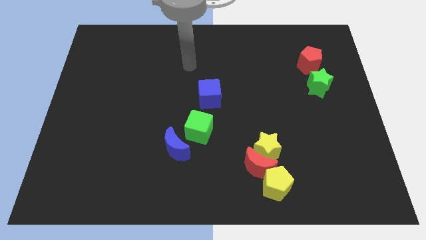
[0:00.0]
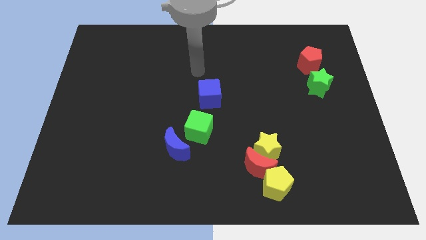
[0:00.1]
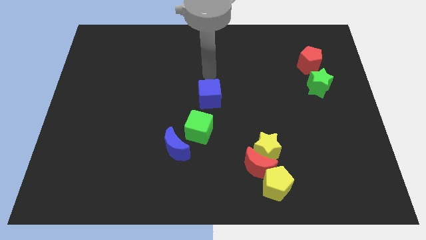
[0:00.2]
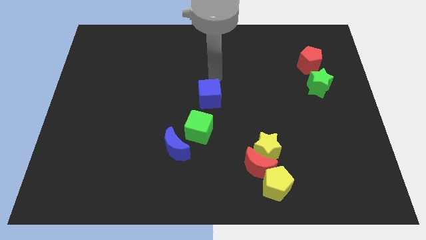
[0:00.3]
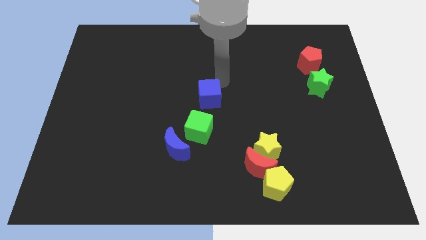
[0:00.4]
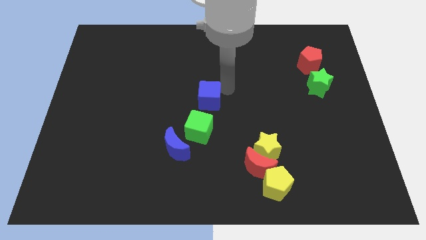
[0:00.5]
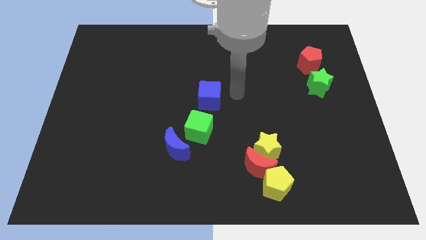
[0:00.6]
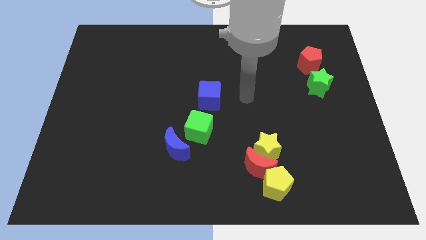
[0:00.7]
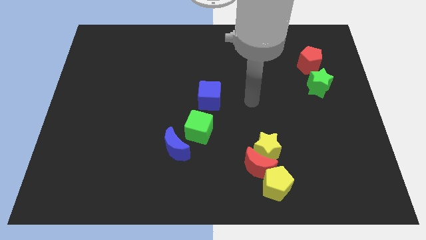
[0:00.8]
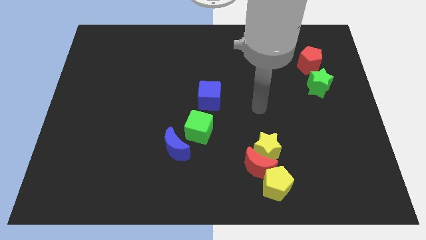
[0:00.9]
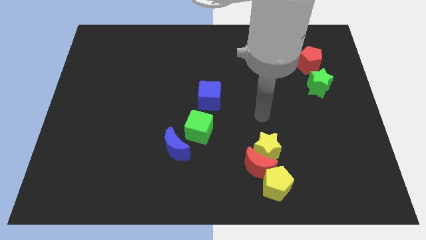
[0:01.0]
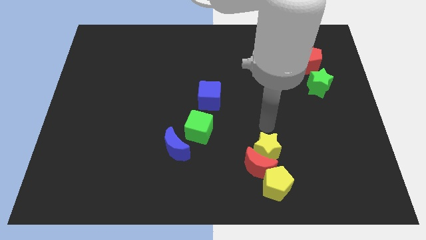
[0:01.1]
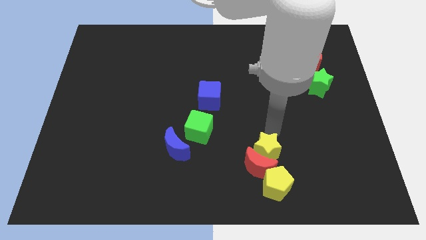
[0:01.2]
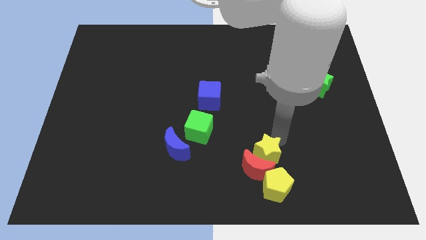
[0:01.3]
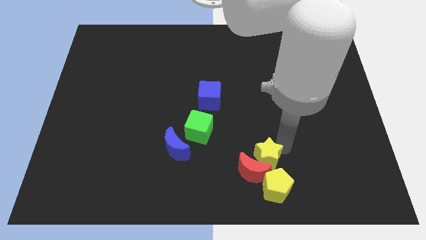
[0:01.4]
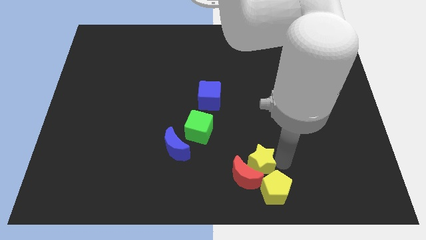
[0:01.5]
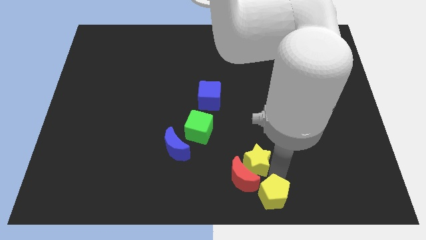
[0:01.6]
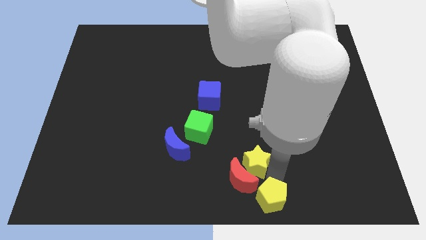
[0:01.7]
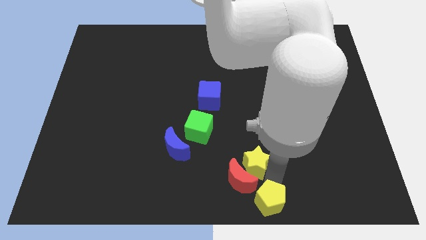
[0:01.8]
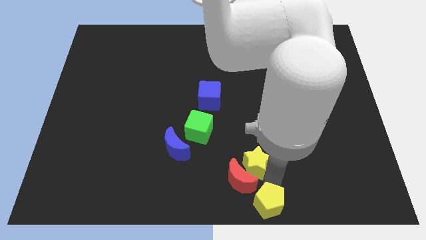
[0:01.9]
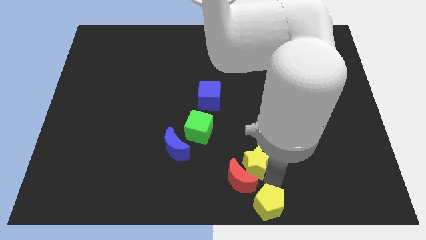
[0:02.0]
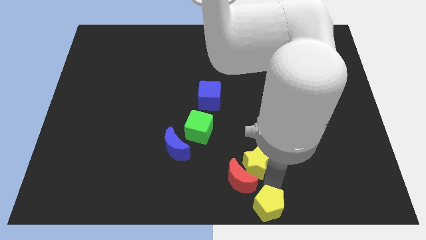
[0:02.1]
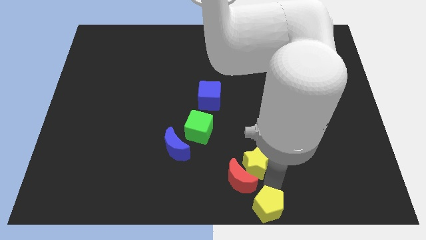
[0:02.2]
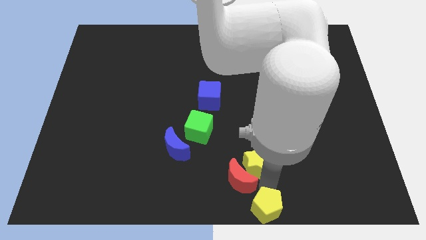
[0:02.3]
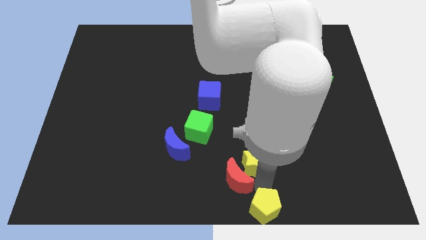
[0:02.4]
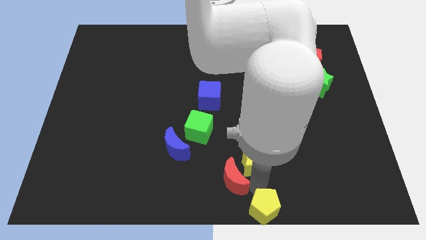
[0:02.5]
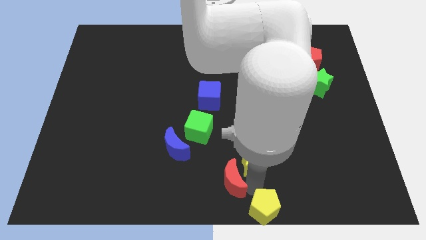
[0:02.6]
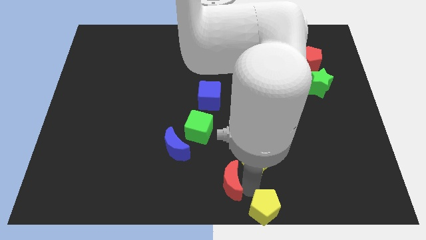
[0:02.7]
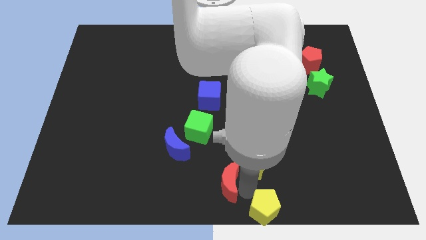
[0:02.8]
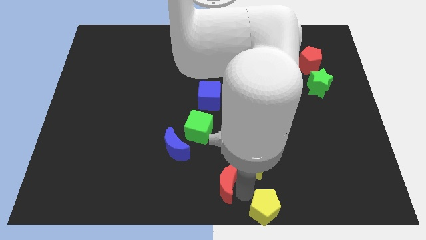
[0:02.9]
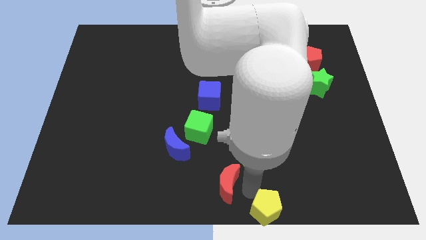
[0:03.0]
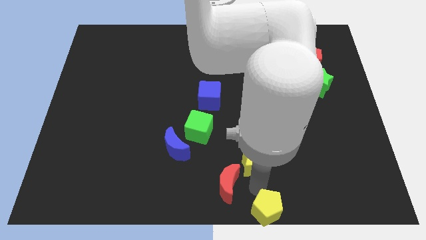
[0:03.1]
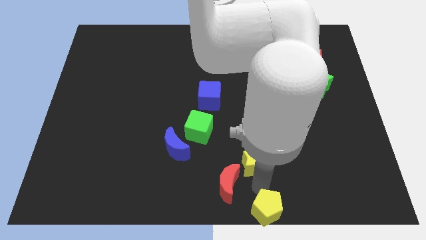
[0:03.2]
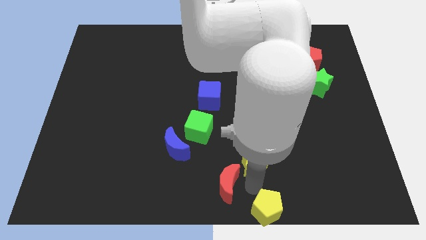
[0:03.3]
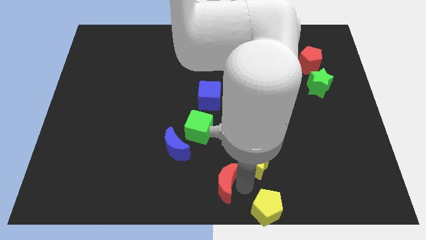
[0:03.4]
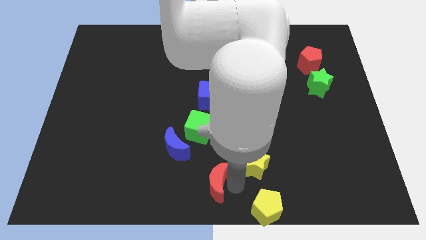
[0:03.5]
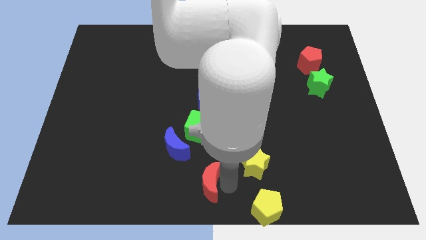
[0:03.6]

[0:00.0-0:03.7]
pull the red moon apart from the yellow star and yellow pentagon

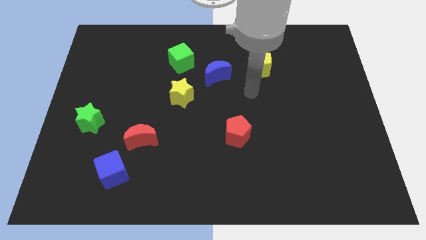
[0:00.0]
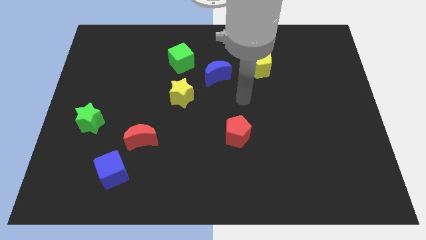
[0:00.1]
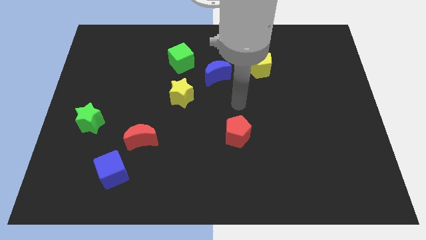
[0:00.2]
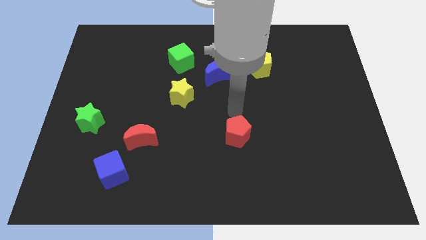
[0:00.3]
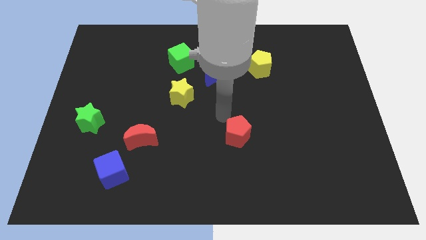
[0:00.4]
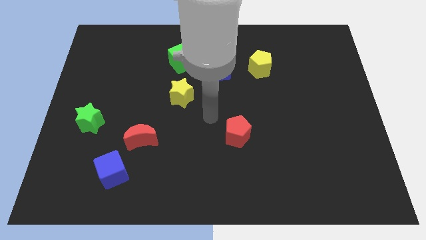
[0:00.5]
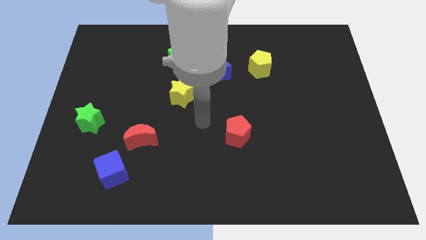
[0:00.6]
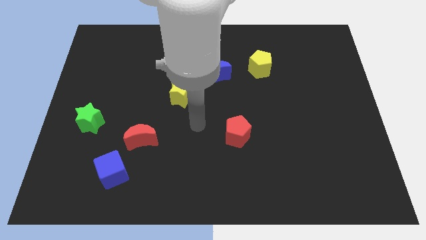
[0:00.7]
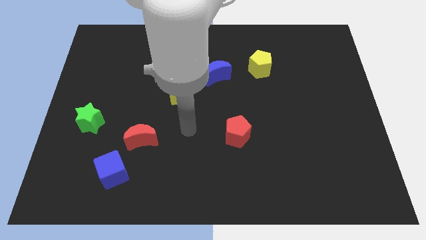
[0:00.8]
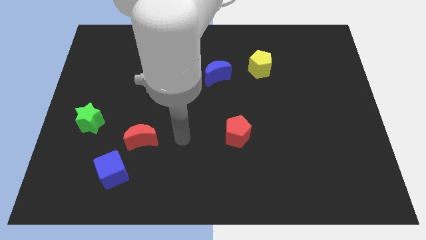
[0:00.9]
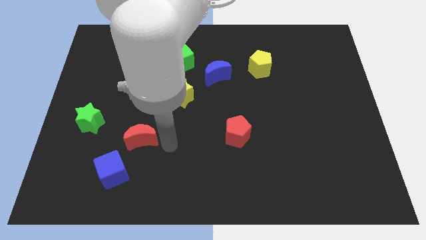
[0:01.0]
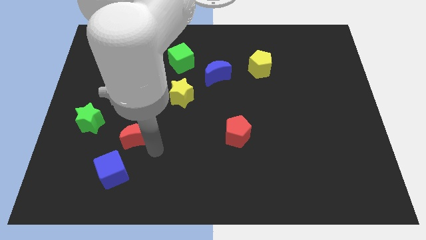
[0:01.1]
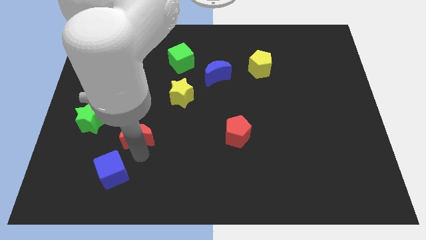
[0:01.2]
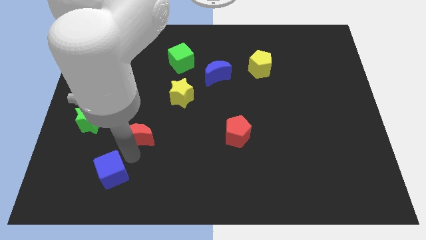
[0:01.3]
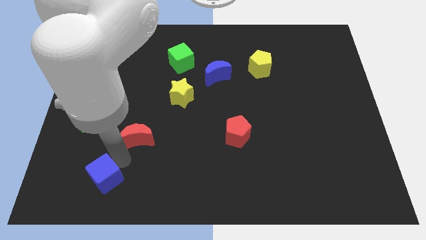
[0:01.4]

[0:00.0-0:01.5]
pull the red moon apart from the blue cube

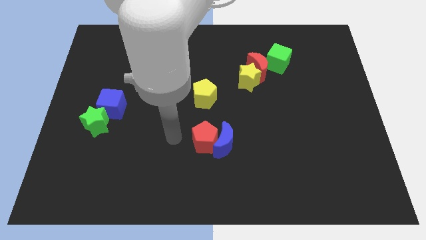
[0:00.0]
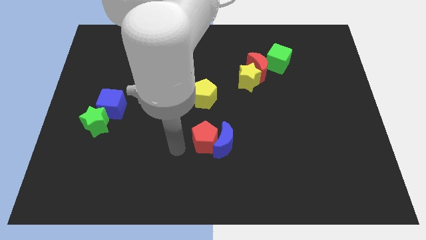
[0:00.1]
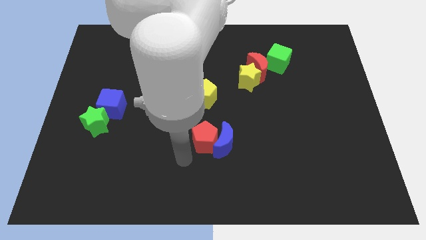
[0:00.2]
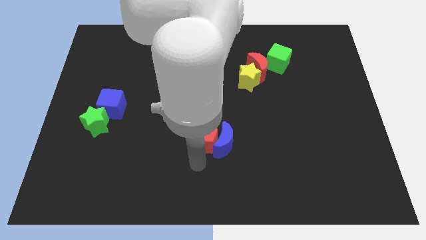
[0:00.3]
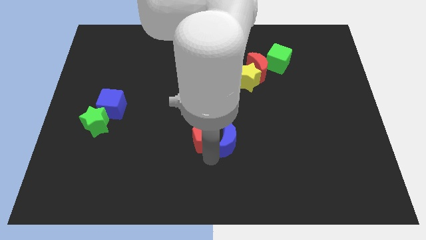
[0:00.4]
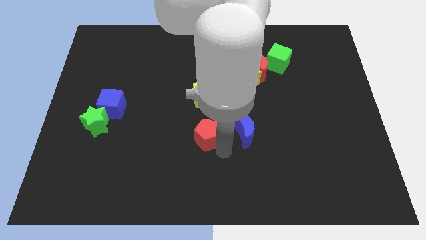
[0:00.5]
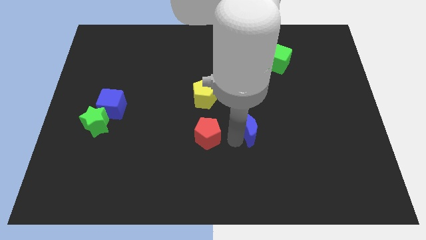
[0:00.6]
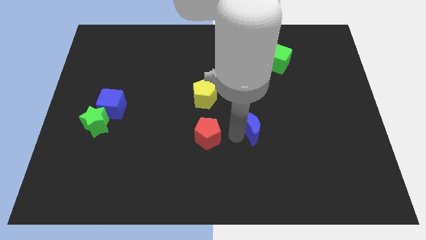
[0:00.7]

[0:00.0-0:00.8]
pull the red pentagon apart from the blue moon

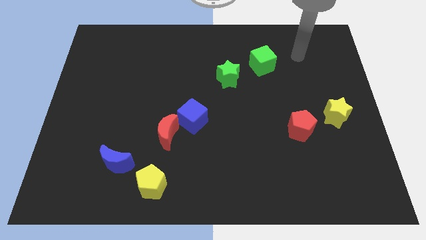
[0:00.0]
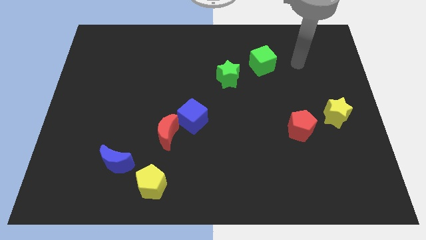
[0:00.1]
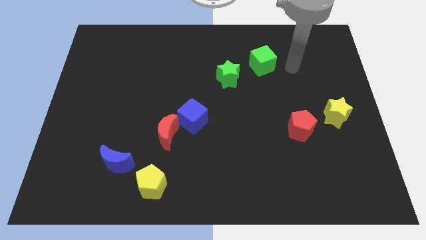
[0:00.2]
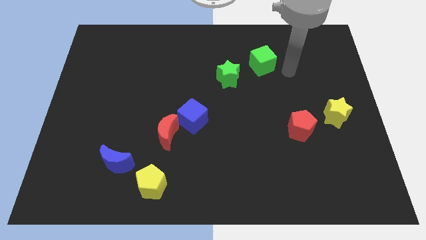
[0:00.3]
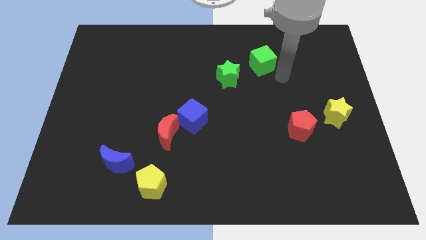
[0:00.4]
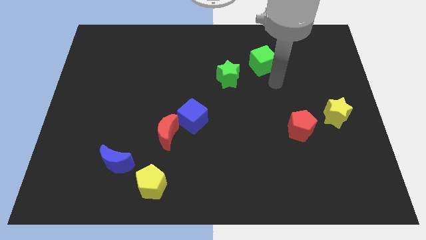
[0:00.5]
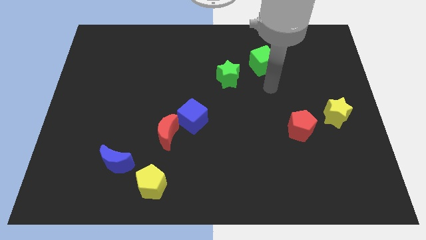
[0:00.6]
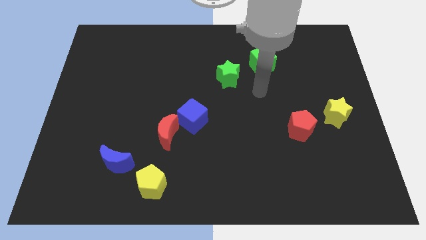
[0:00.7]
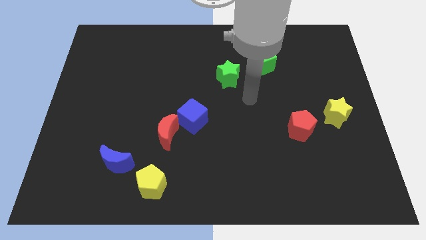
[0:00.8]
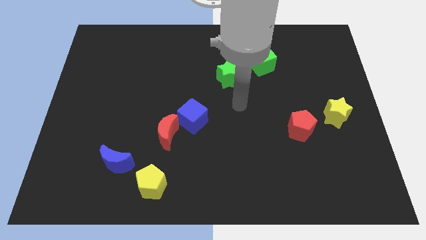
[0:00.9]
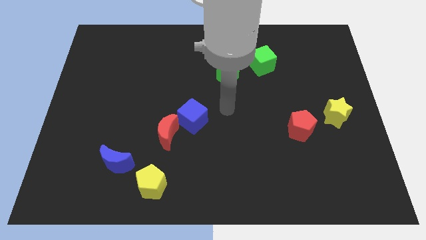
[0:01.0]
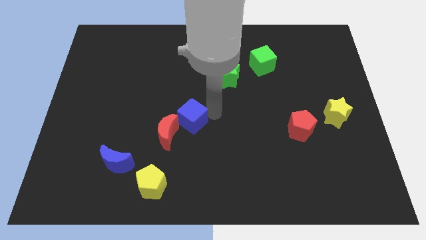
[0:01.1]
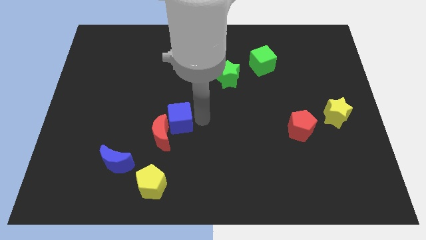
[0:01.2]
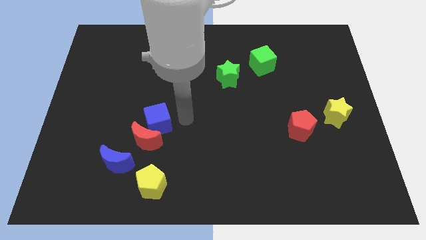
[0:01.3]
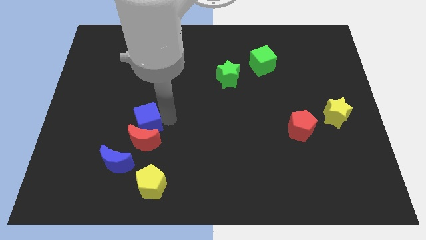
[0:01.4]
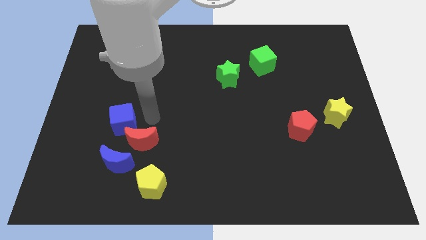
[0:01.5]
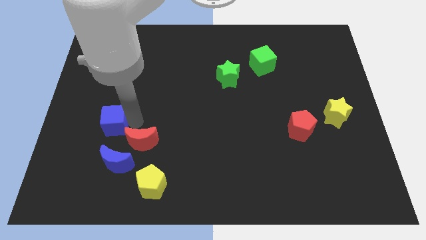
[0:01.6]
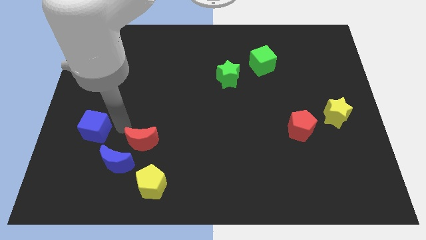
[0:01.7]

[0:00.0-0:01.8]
move the red moon away from the blue cube

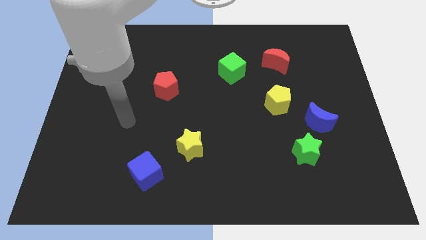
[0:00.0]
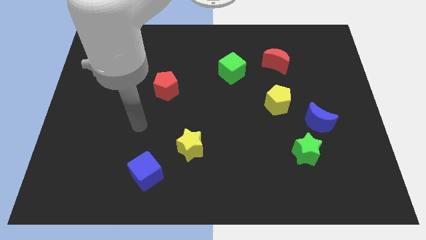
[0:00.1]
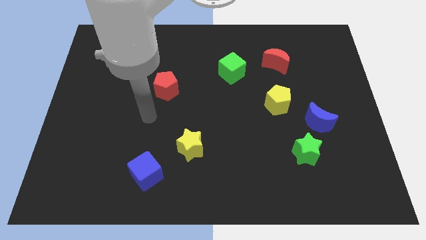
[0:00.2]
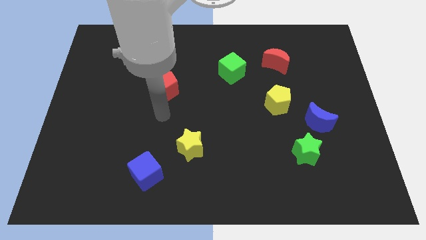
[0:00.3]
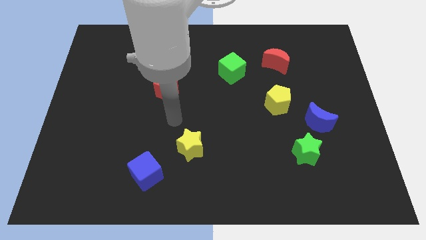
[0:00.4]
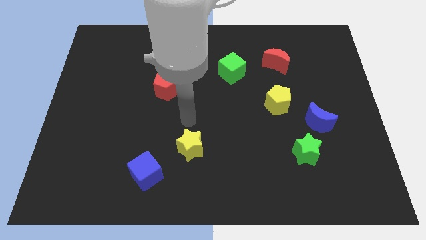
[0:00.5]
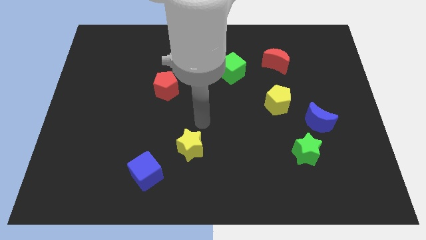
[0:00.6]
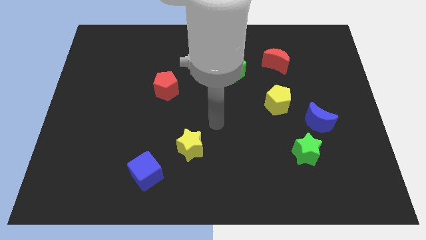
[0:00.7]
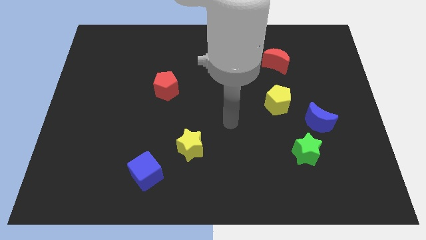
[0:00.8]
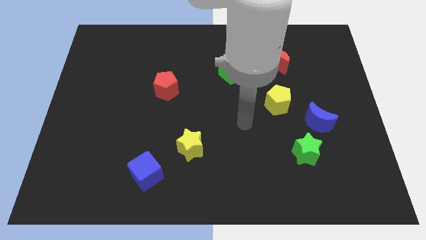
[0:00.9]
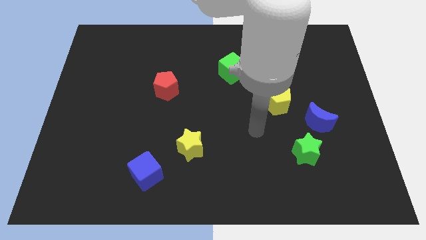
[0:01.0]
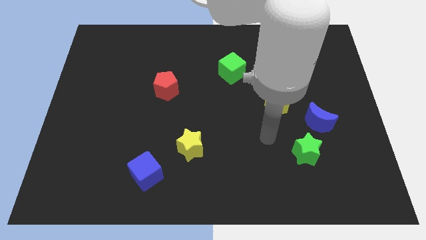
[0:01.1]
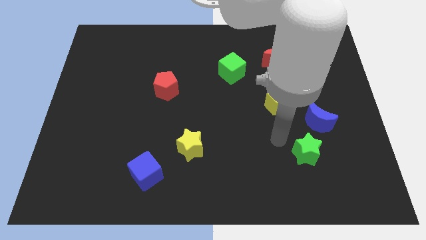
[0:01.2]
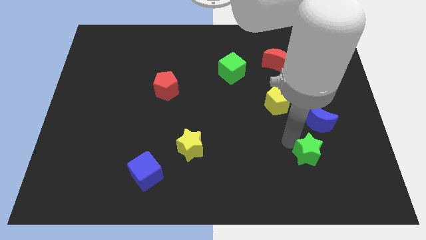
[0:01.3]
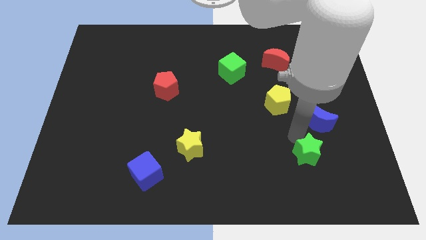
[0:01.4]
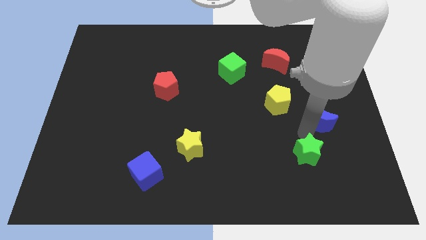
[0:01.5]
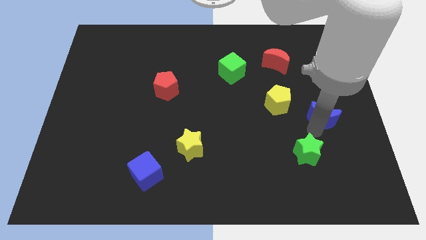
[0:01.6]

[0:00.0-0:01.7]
move the green star away from the blue moon
